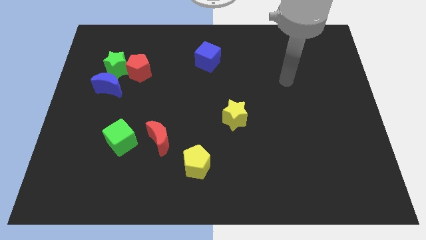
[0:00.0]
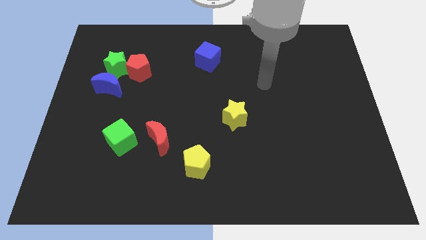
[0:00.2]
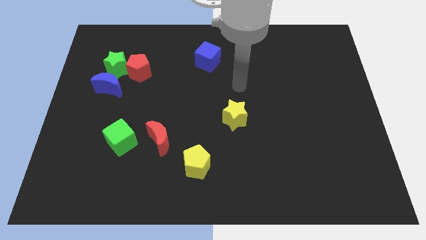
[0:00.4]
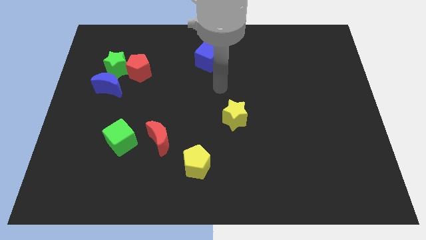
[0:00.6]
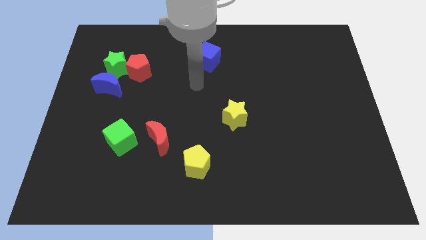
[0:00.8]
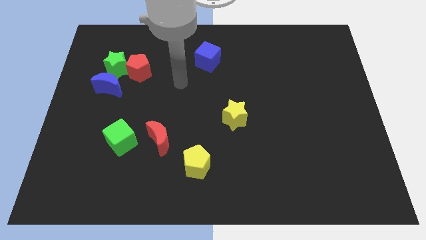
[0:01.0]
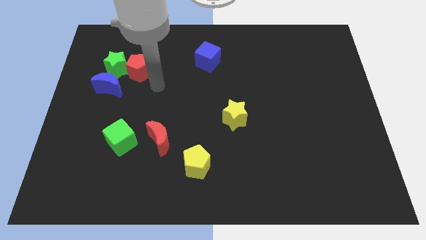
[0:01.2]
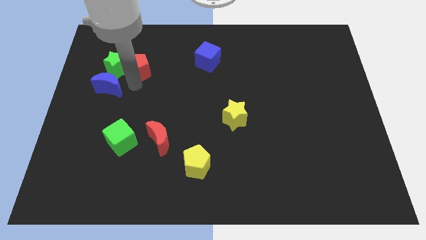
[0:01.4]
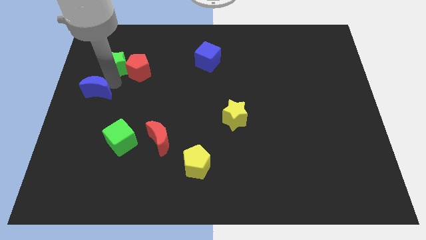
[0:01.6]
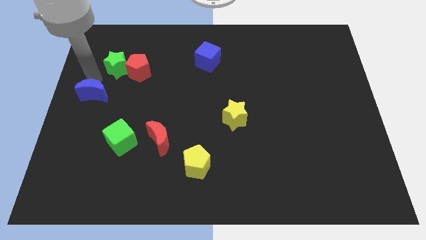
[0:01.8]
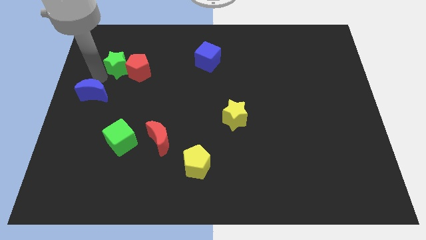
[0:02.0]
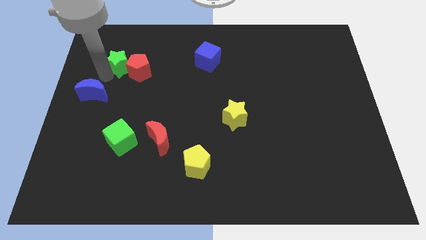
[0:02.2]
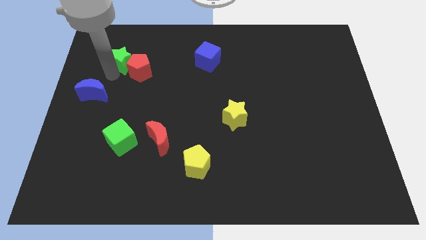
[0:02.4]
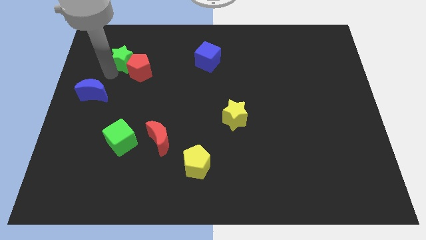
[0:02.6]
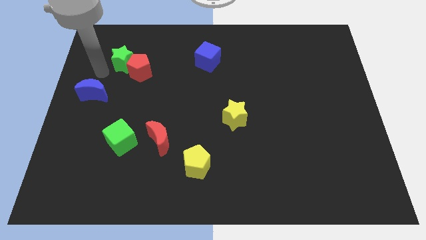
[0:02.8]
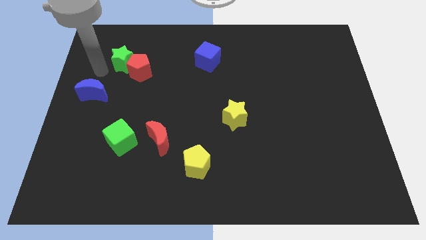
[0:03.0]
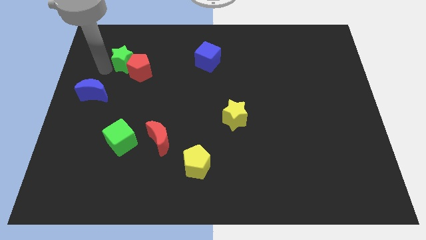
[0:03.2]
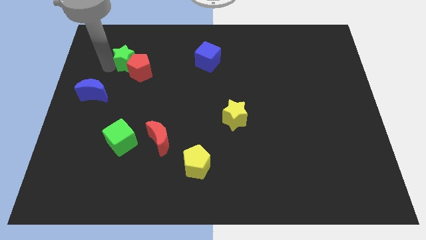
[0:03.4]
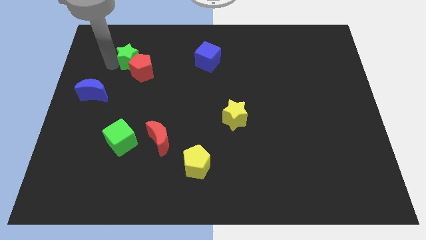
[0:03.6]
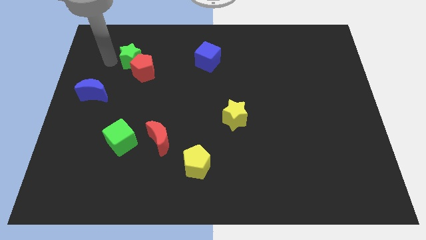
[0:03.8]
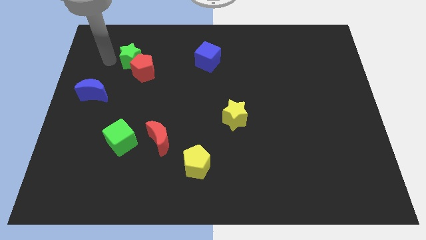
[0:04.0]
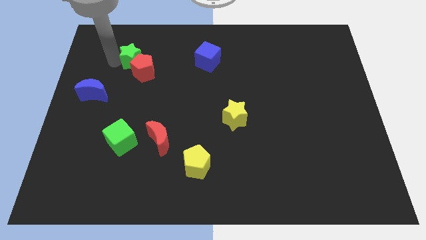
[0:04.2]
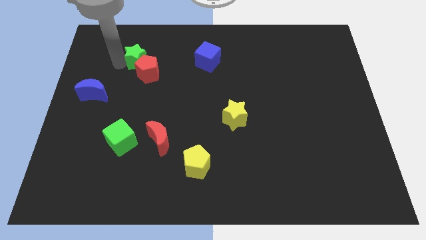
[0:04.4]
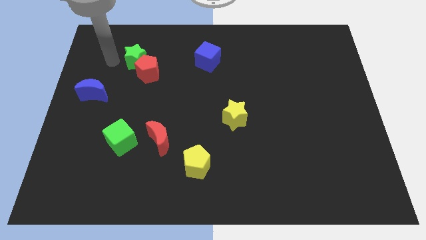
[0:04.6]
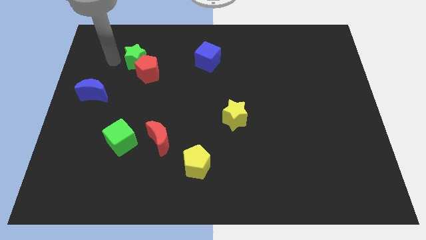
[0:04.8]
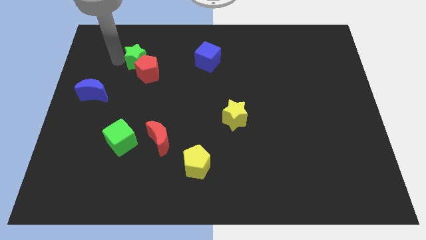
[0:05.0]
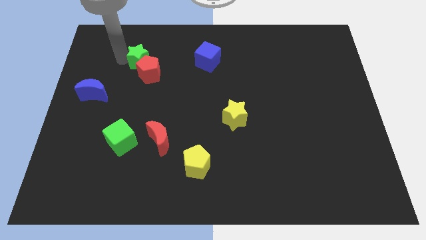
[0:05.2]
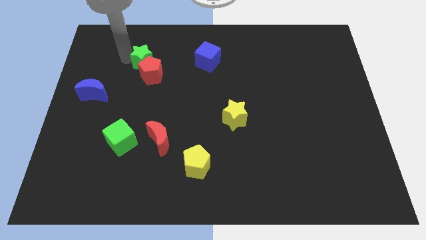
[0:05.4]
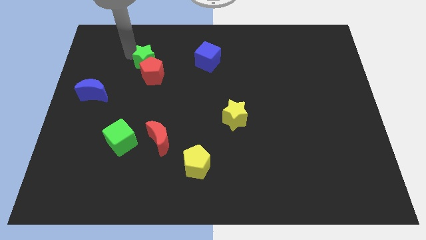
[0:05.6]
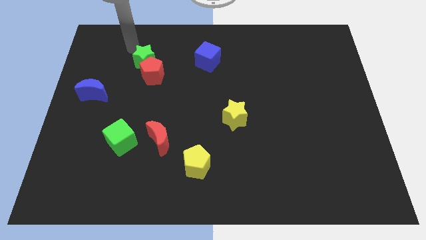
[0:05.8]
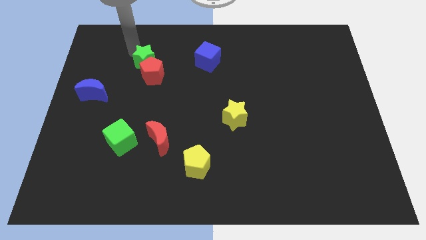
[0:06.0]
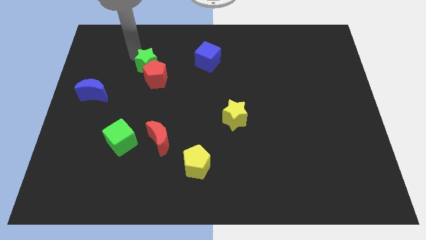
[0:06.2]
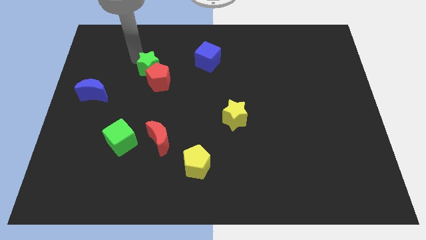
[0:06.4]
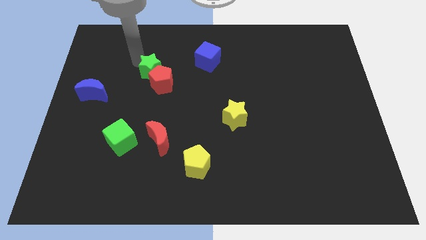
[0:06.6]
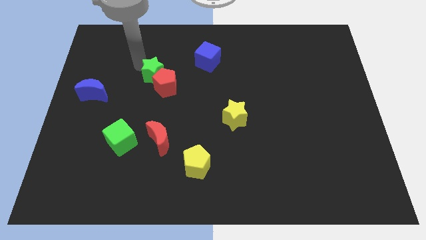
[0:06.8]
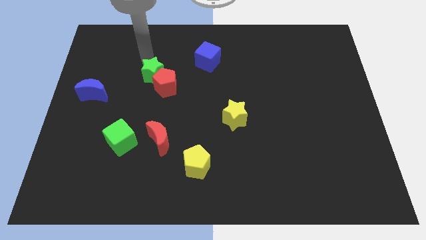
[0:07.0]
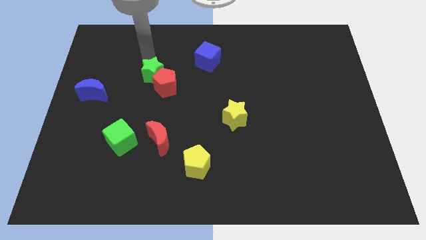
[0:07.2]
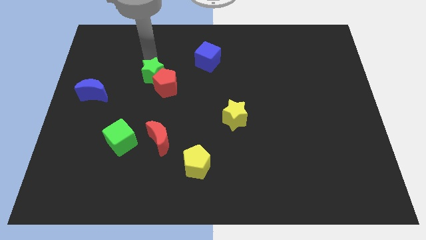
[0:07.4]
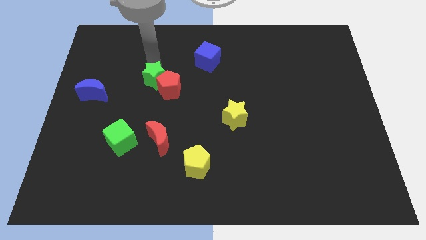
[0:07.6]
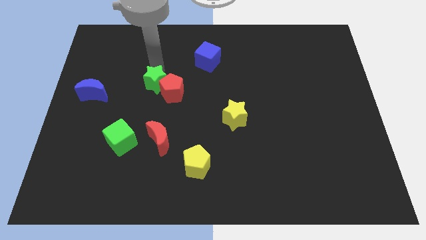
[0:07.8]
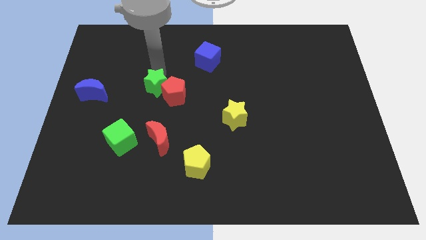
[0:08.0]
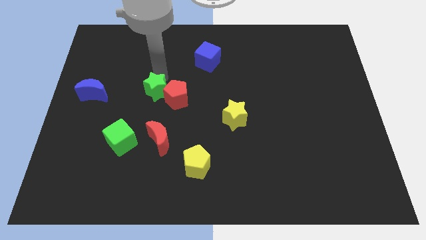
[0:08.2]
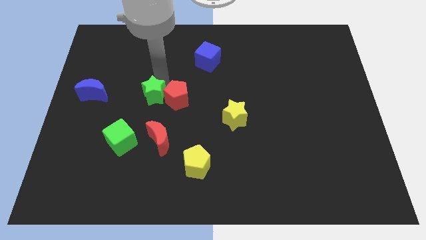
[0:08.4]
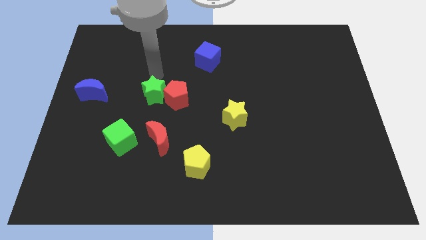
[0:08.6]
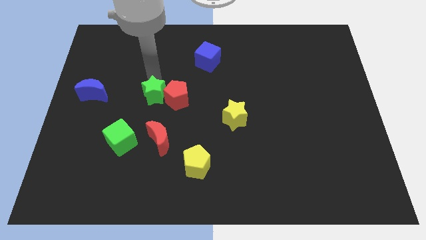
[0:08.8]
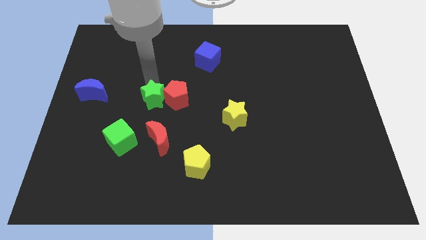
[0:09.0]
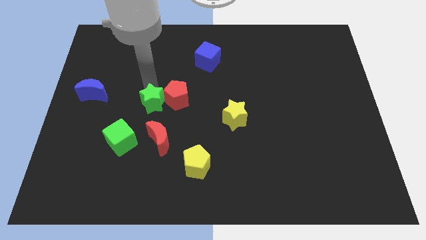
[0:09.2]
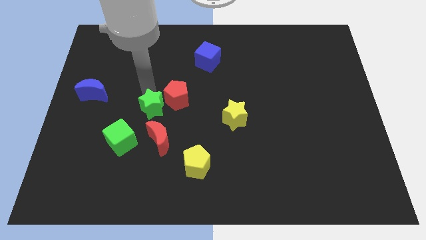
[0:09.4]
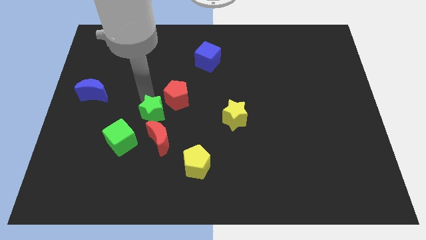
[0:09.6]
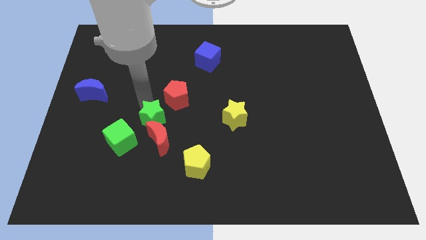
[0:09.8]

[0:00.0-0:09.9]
push the green star to the red moon

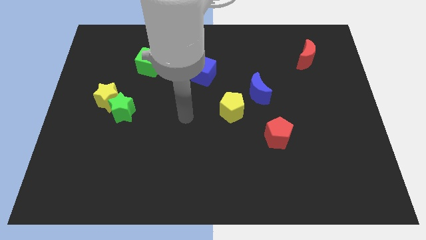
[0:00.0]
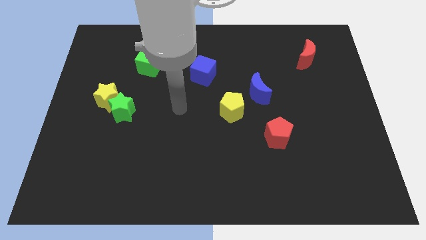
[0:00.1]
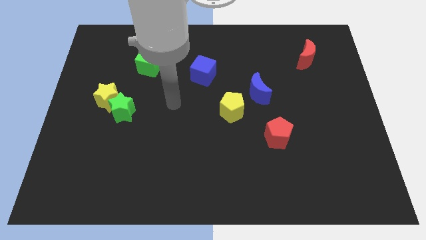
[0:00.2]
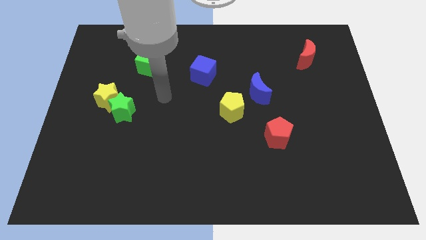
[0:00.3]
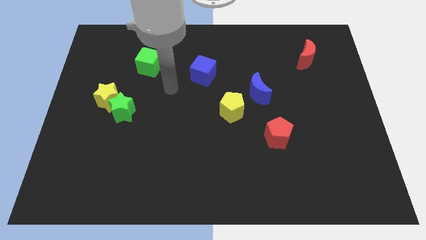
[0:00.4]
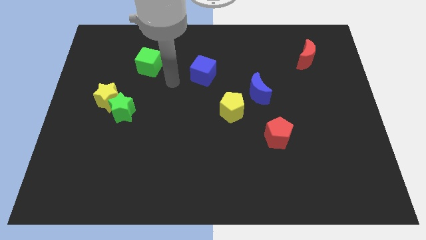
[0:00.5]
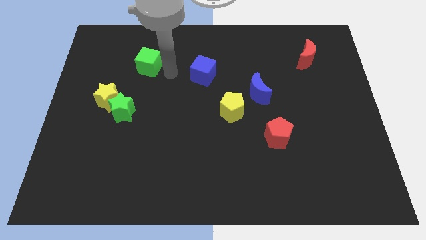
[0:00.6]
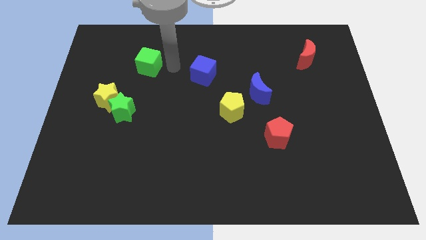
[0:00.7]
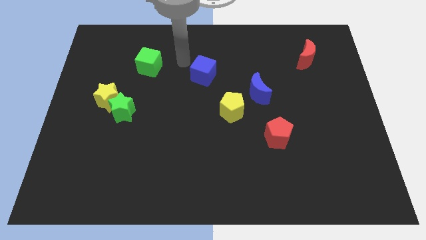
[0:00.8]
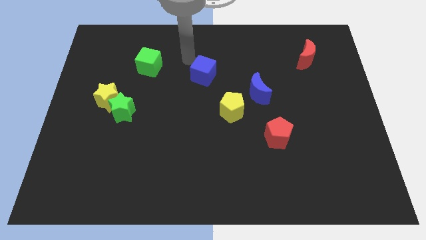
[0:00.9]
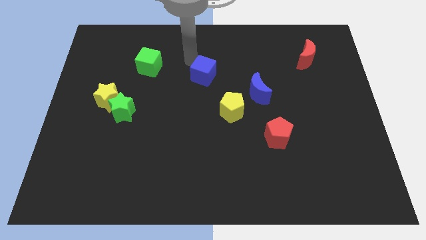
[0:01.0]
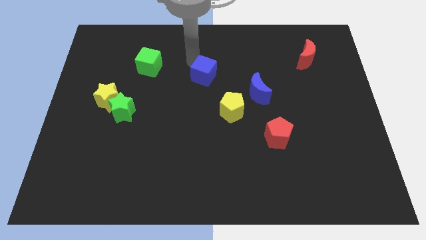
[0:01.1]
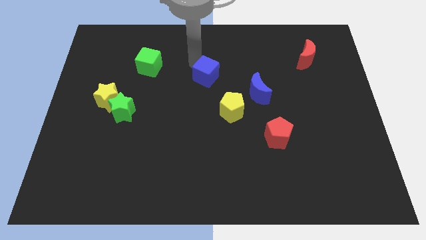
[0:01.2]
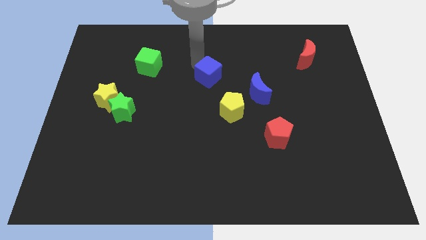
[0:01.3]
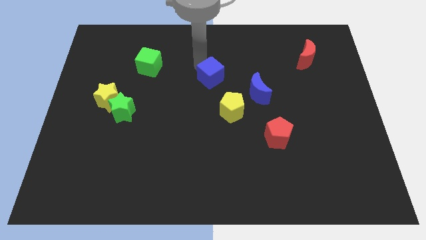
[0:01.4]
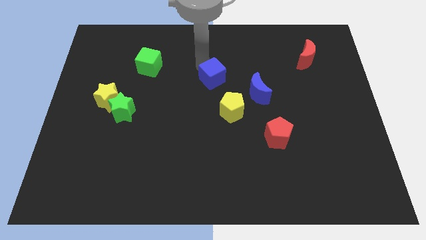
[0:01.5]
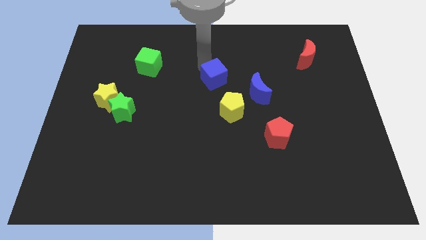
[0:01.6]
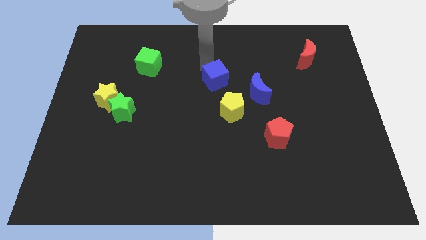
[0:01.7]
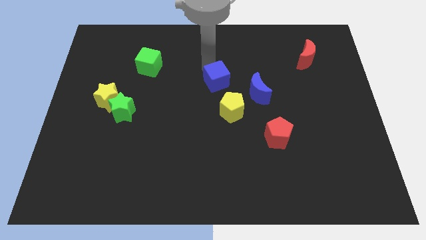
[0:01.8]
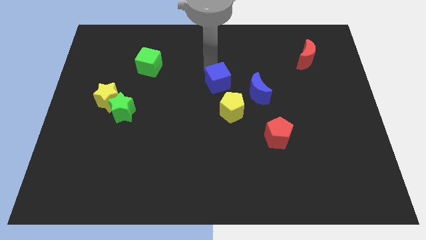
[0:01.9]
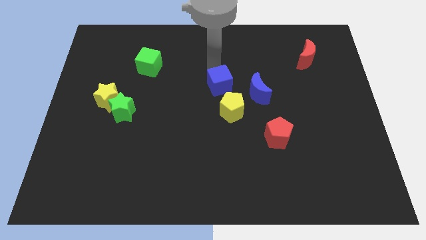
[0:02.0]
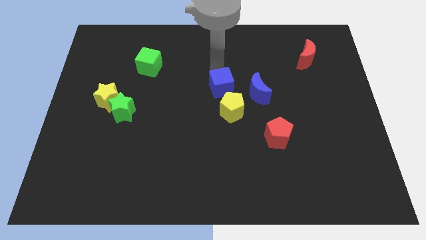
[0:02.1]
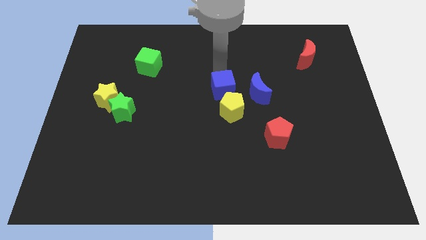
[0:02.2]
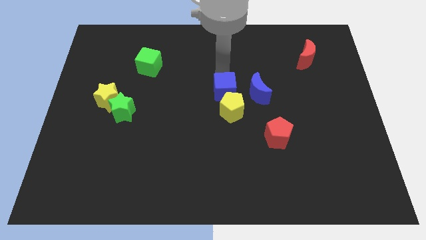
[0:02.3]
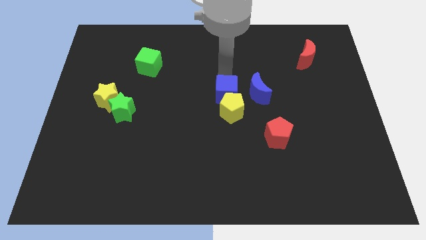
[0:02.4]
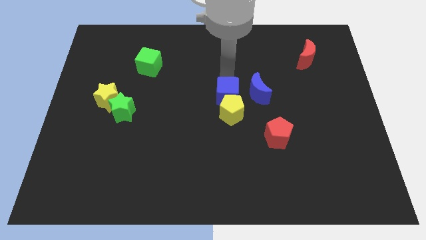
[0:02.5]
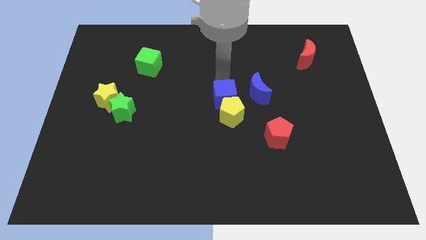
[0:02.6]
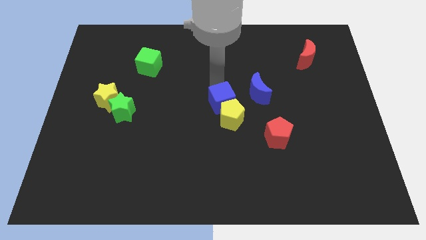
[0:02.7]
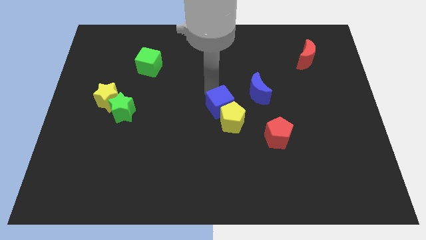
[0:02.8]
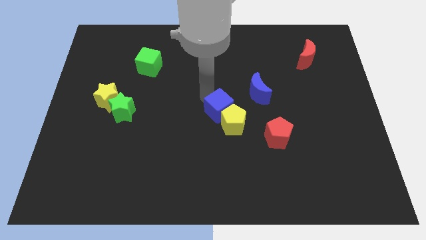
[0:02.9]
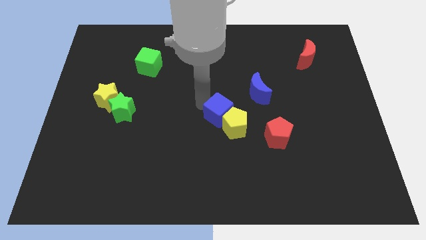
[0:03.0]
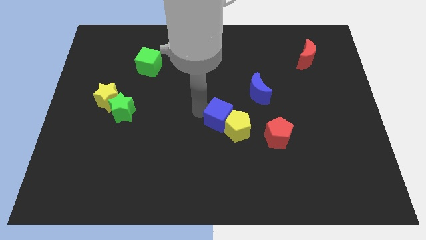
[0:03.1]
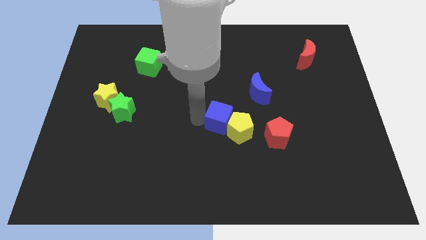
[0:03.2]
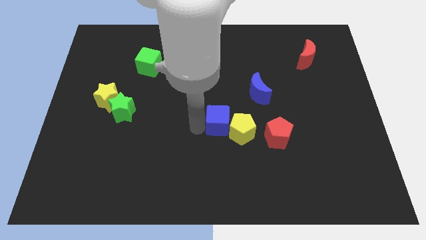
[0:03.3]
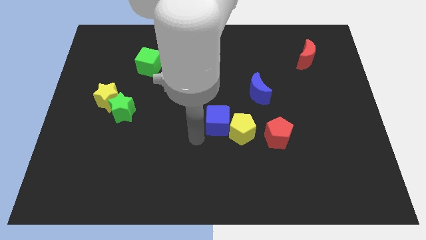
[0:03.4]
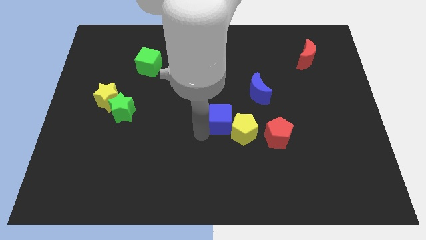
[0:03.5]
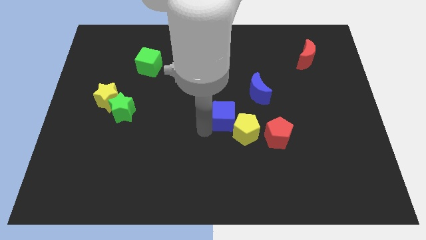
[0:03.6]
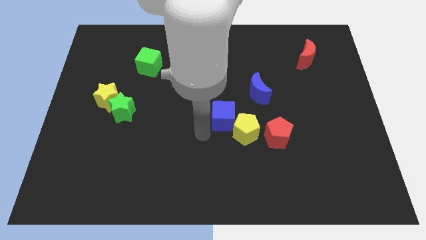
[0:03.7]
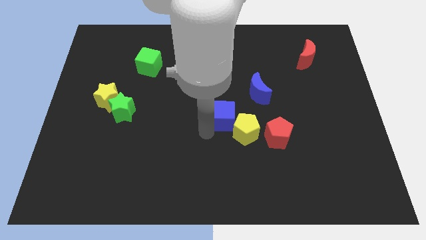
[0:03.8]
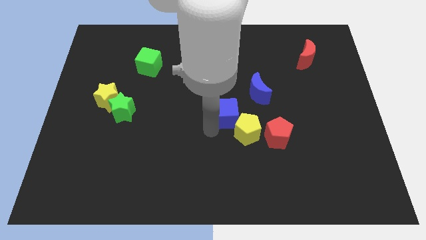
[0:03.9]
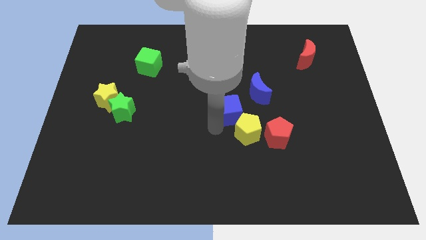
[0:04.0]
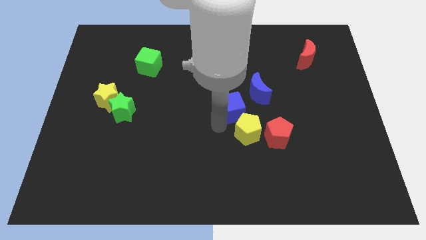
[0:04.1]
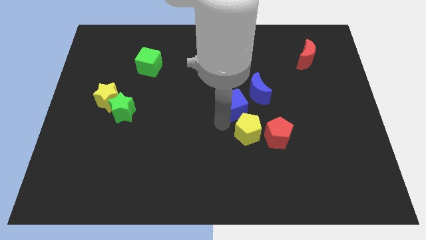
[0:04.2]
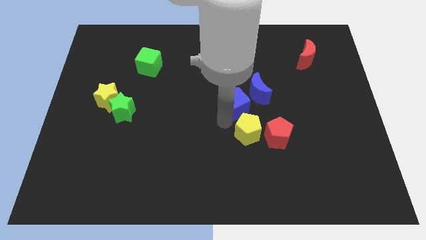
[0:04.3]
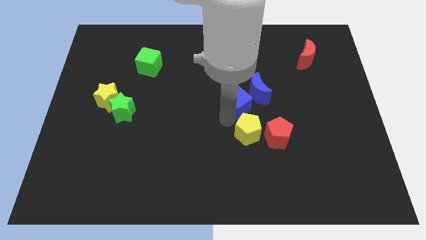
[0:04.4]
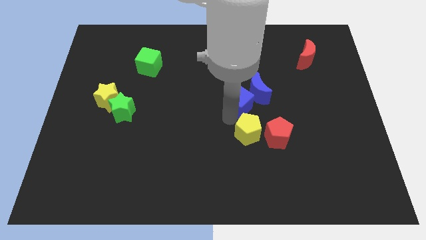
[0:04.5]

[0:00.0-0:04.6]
push the blue cube towards the blue moon
